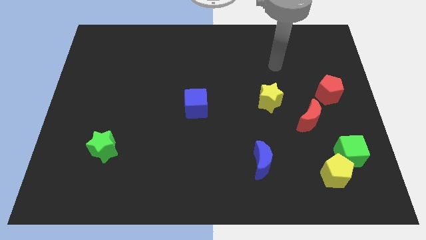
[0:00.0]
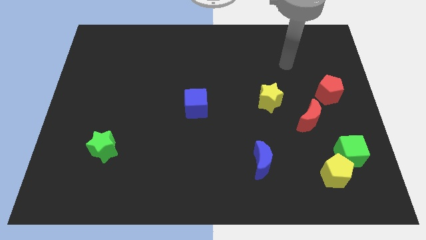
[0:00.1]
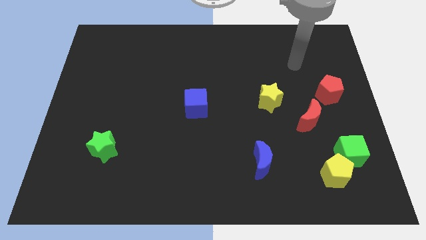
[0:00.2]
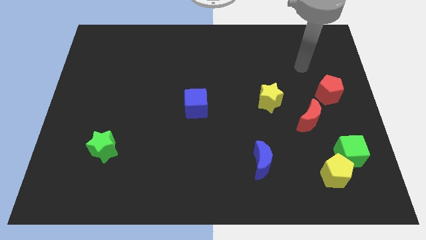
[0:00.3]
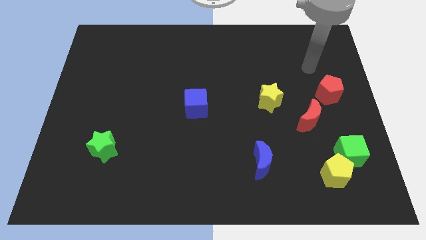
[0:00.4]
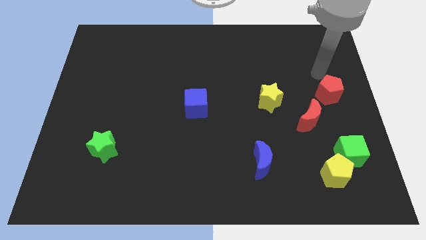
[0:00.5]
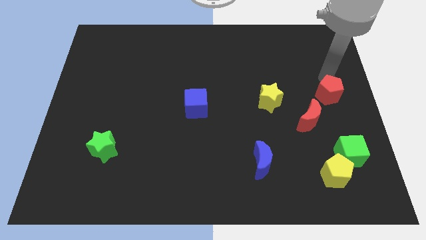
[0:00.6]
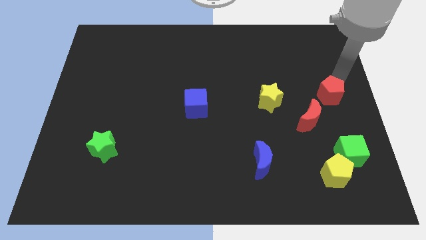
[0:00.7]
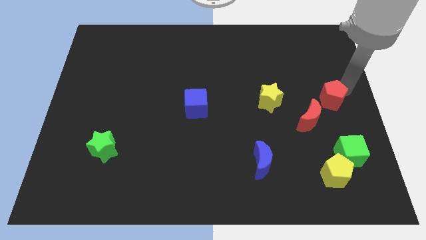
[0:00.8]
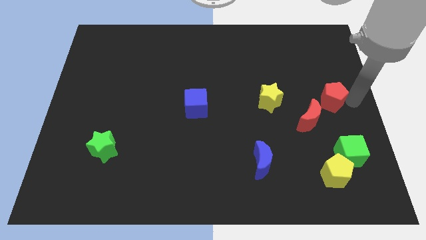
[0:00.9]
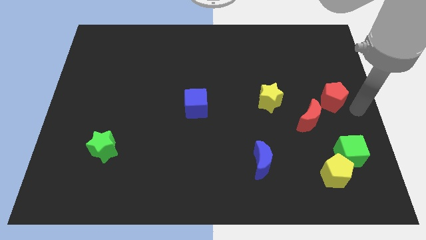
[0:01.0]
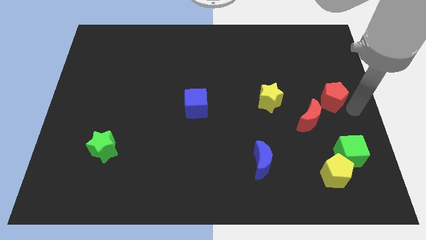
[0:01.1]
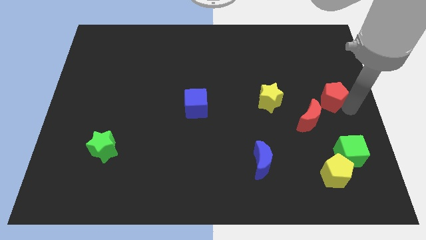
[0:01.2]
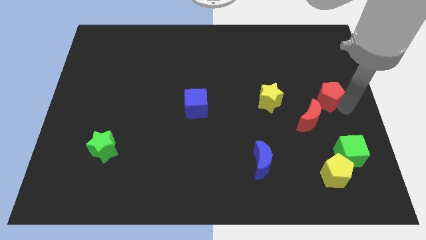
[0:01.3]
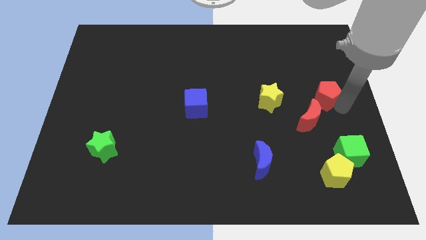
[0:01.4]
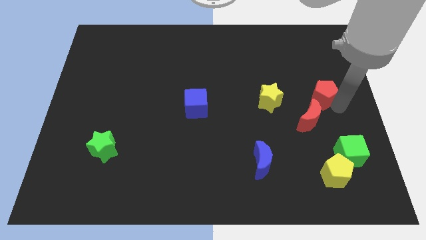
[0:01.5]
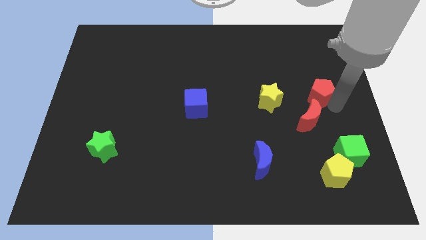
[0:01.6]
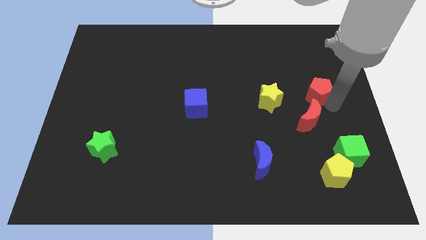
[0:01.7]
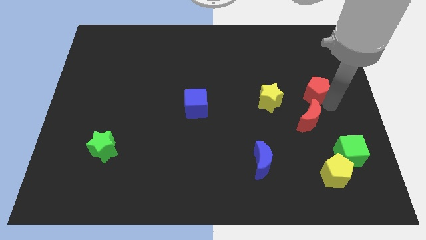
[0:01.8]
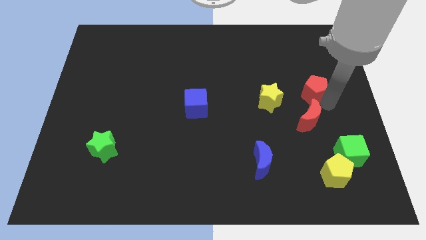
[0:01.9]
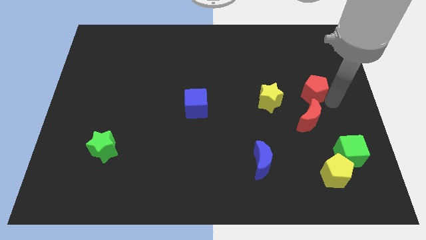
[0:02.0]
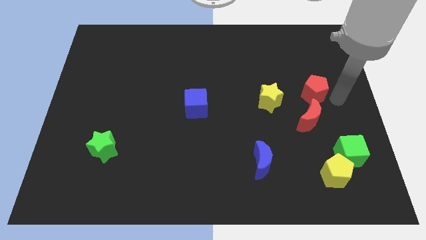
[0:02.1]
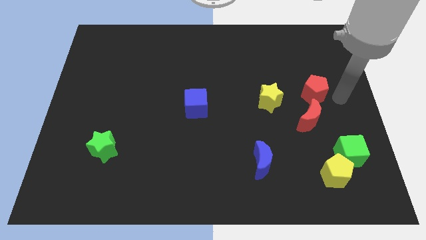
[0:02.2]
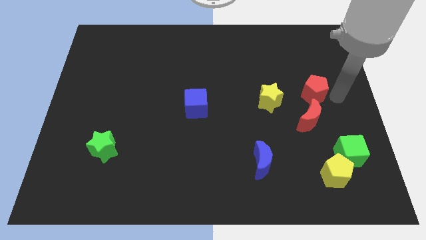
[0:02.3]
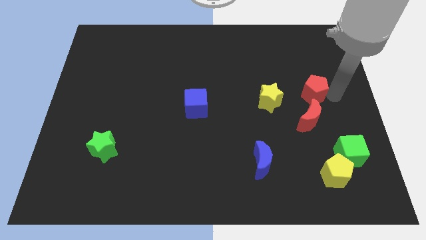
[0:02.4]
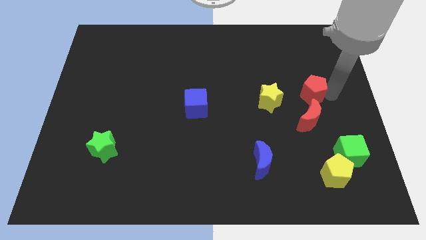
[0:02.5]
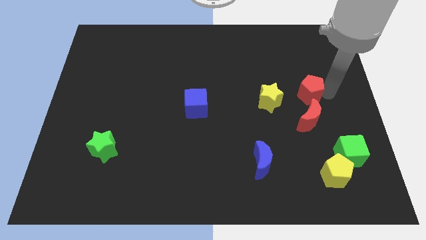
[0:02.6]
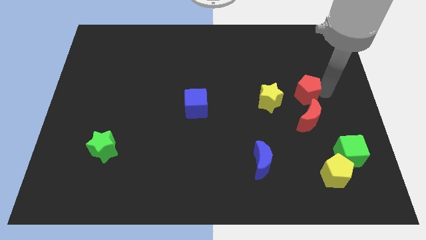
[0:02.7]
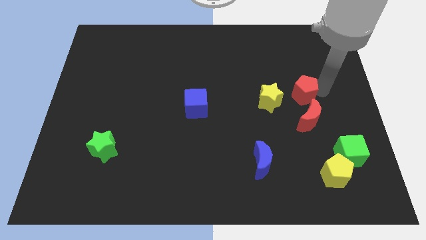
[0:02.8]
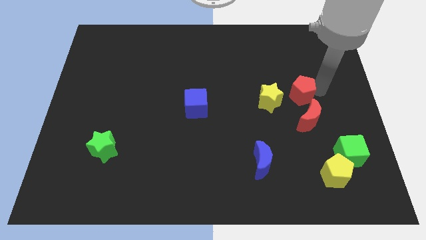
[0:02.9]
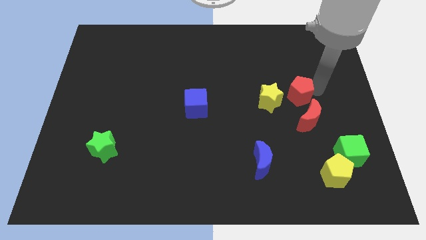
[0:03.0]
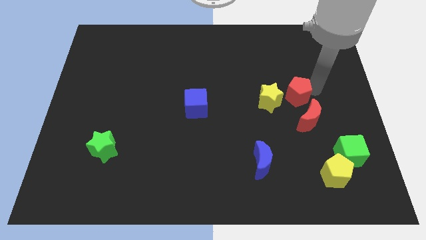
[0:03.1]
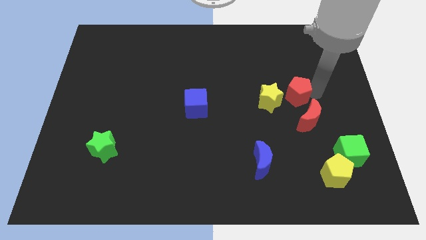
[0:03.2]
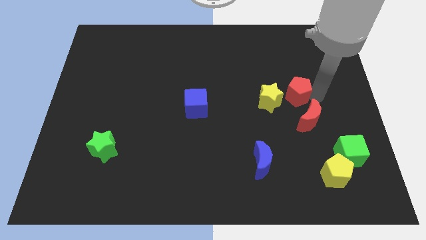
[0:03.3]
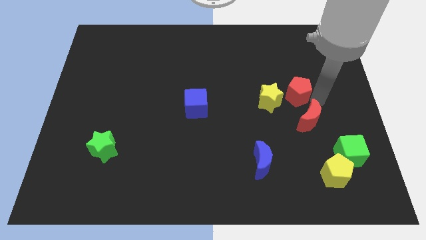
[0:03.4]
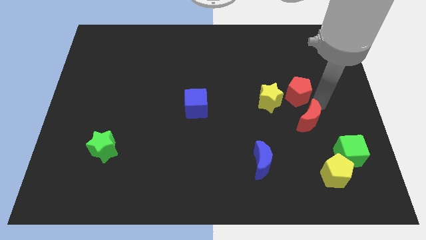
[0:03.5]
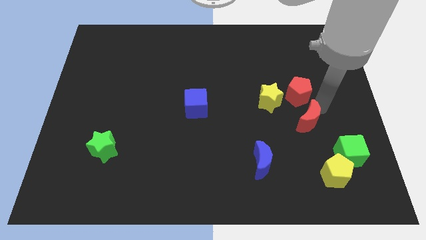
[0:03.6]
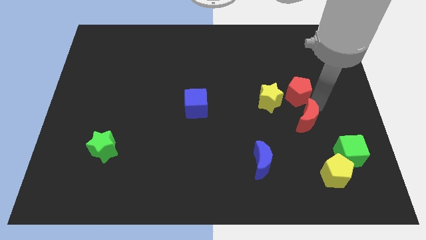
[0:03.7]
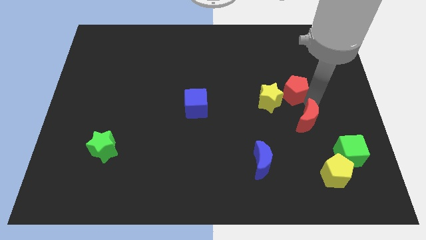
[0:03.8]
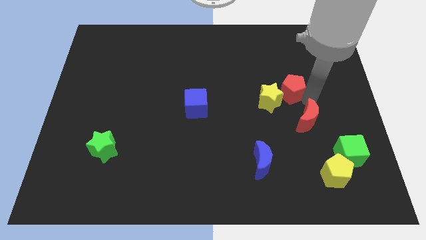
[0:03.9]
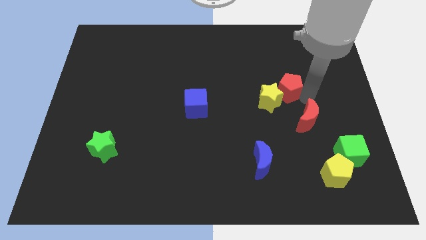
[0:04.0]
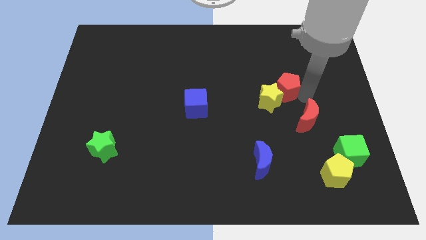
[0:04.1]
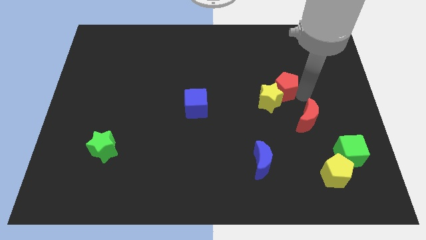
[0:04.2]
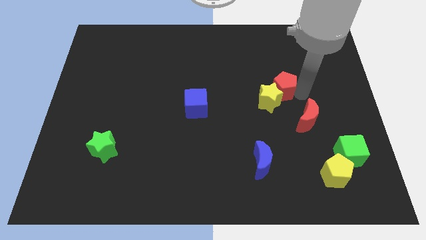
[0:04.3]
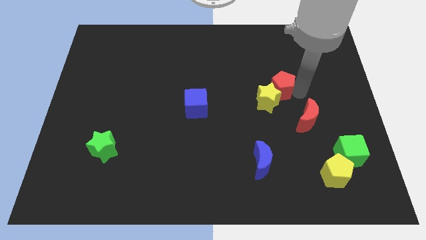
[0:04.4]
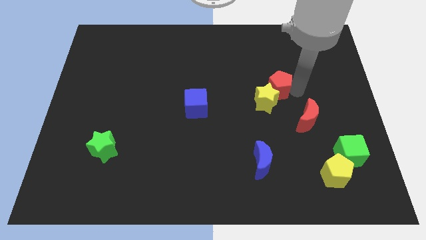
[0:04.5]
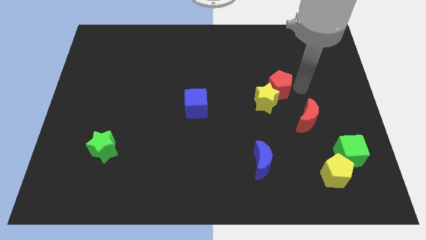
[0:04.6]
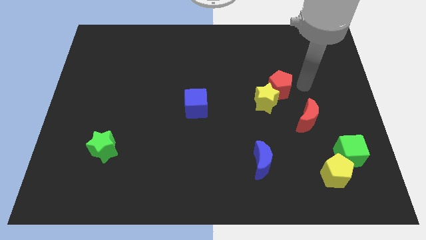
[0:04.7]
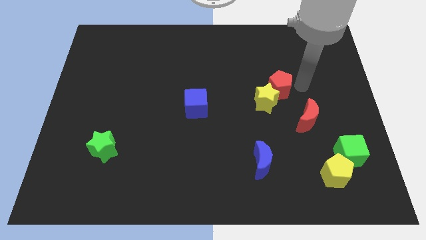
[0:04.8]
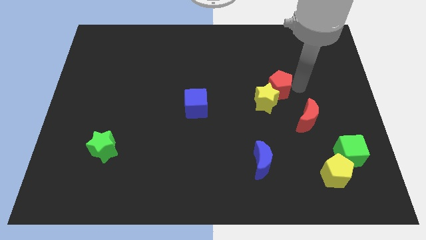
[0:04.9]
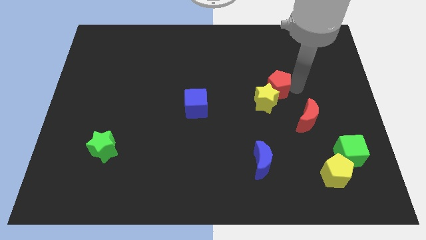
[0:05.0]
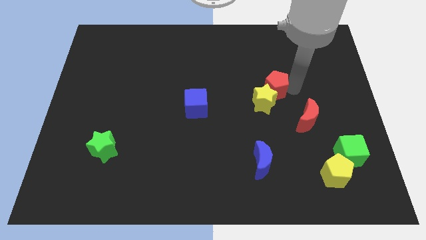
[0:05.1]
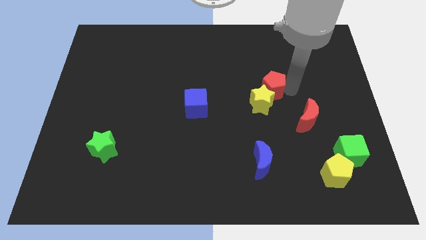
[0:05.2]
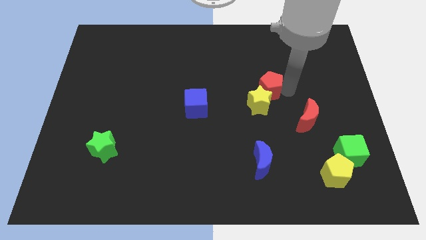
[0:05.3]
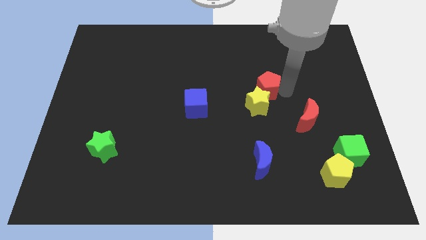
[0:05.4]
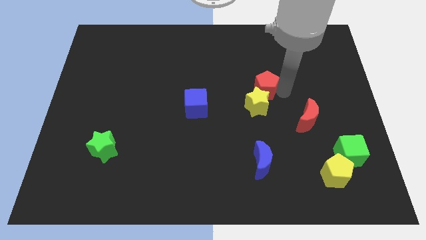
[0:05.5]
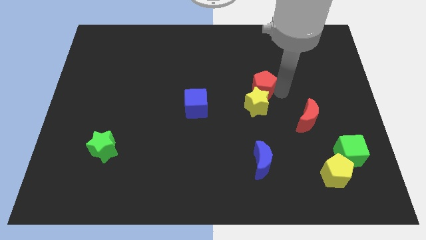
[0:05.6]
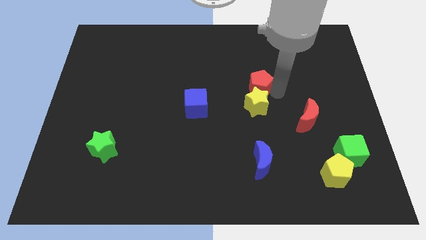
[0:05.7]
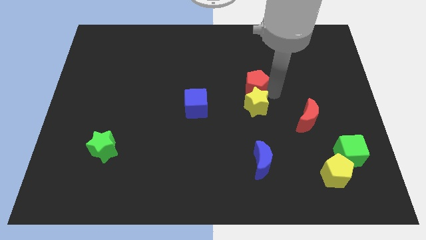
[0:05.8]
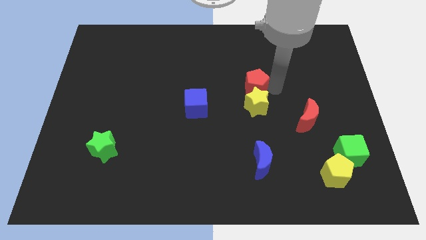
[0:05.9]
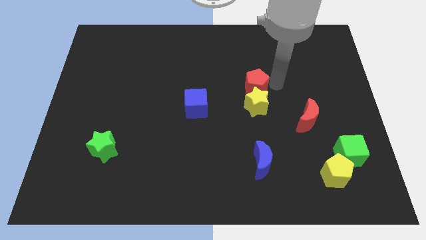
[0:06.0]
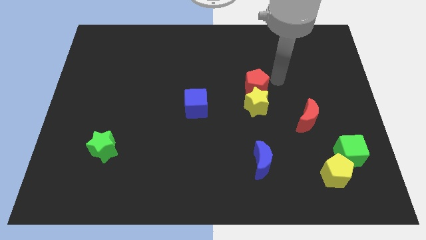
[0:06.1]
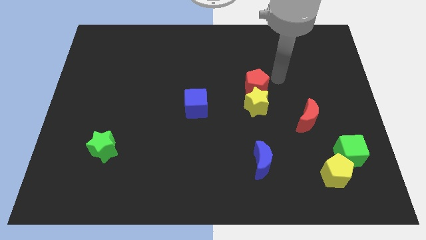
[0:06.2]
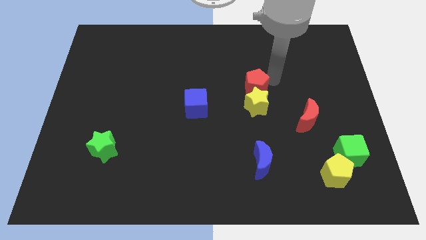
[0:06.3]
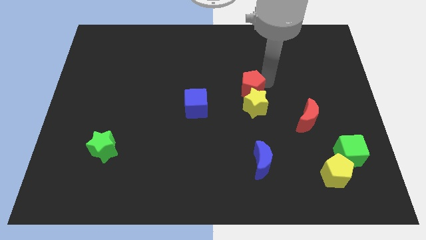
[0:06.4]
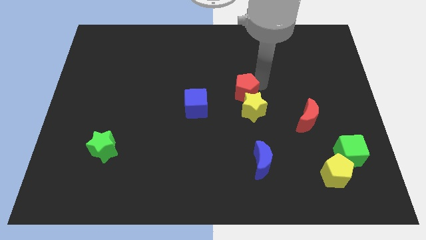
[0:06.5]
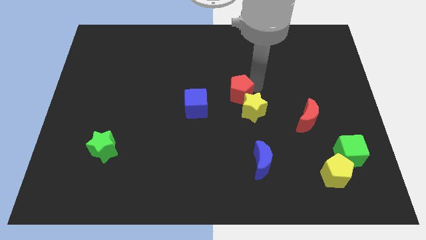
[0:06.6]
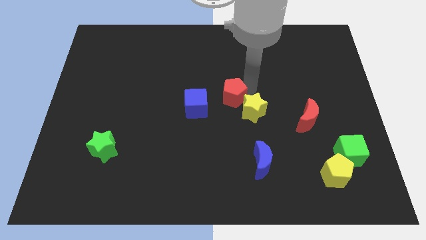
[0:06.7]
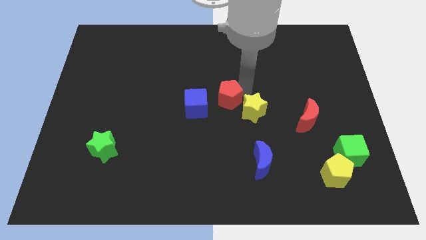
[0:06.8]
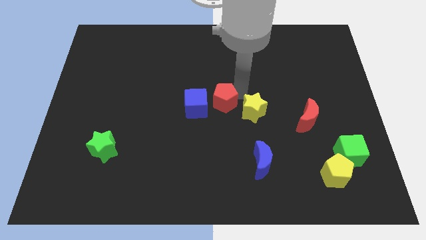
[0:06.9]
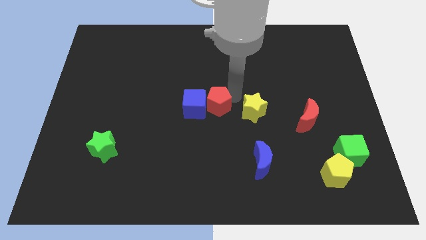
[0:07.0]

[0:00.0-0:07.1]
slide the red pentagon next to the blue cube

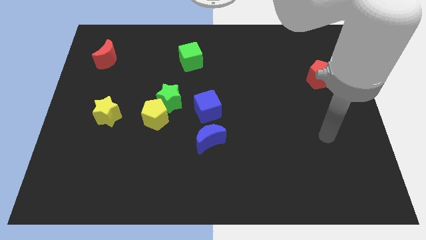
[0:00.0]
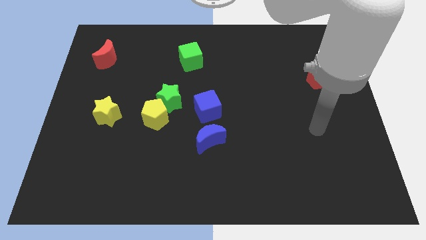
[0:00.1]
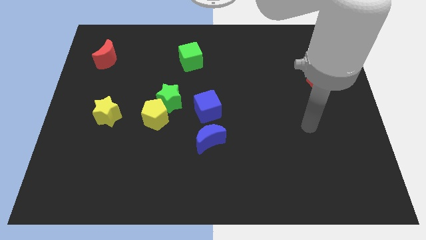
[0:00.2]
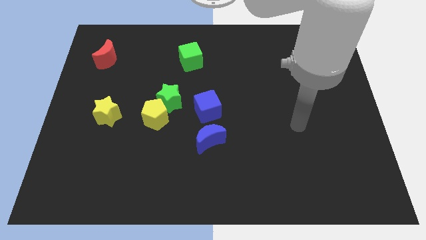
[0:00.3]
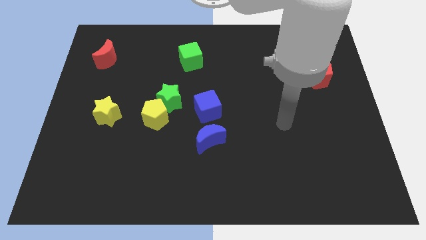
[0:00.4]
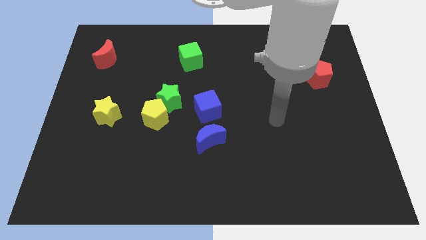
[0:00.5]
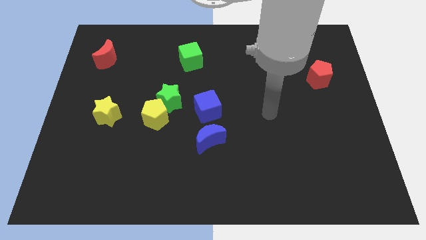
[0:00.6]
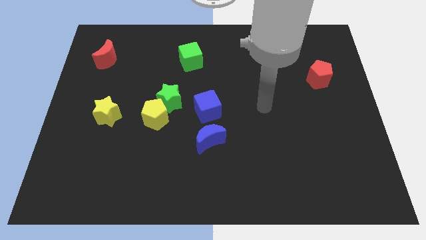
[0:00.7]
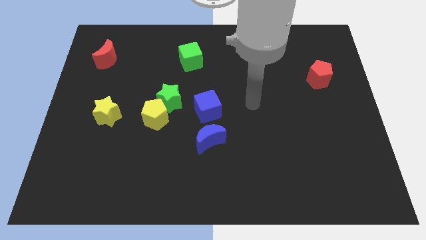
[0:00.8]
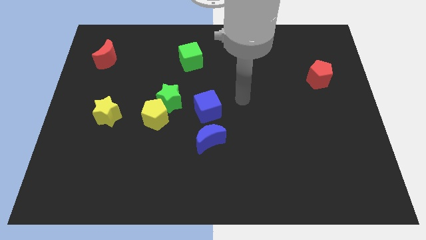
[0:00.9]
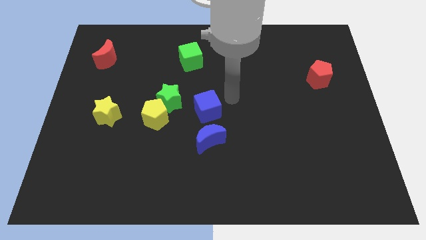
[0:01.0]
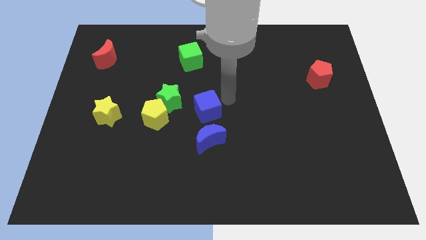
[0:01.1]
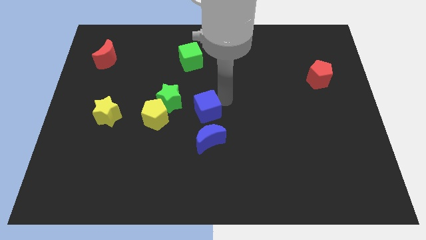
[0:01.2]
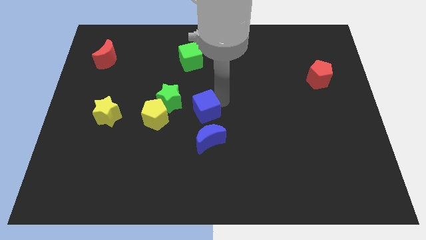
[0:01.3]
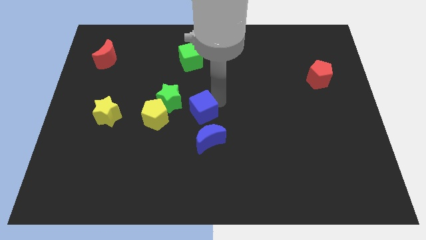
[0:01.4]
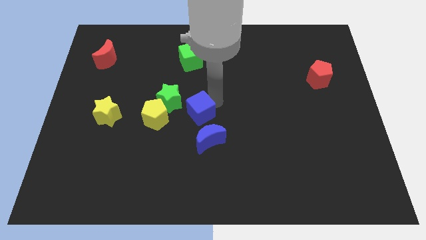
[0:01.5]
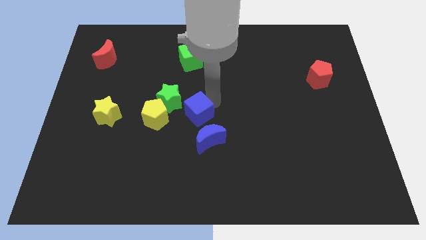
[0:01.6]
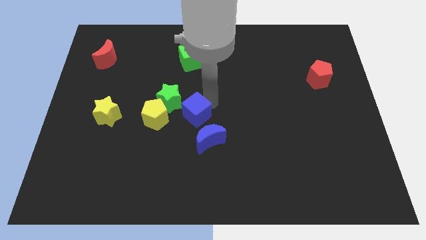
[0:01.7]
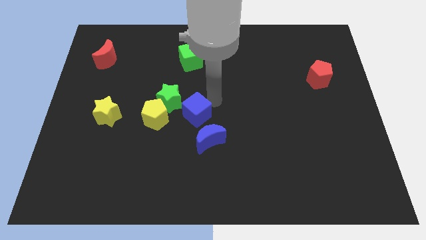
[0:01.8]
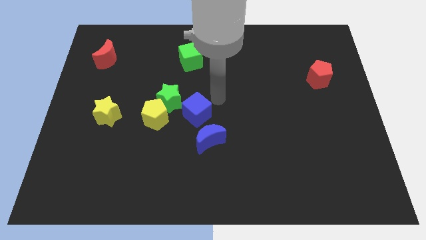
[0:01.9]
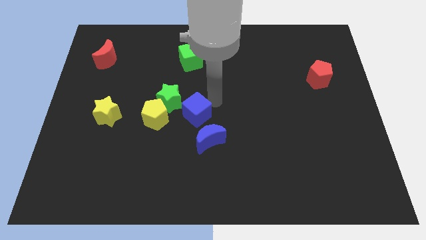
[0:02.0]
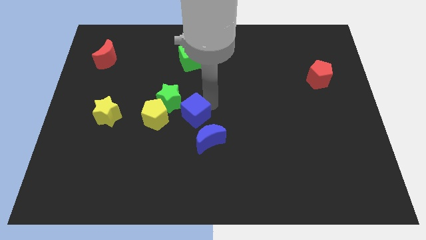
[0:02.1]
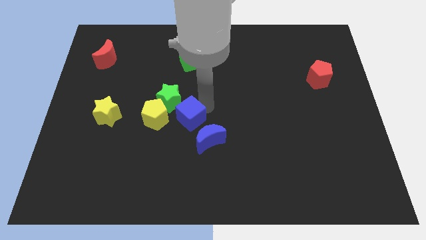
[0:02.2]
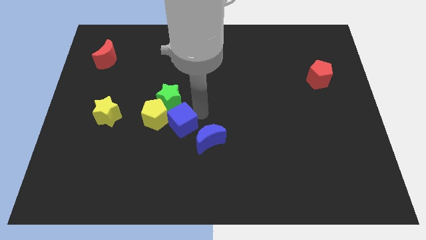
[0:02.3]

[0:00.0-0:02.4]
move the blue cube next to the yellow pentagon
